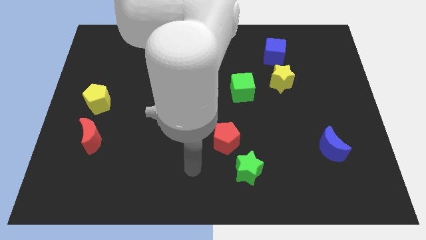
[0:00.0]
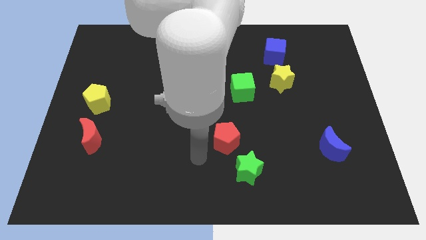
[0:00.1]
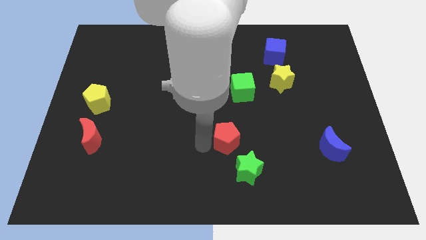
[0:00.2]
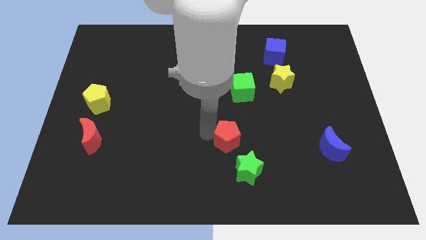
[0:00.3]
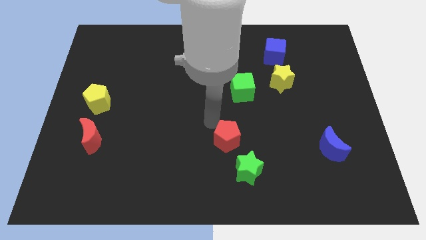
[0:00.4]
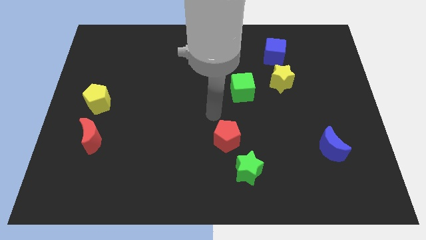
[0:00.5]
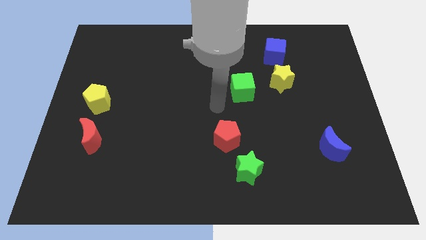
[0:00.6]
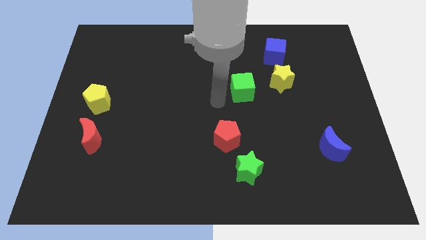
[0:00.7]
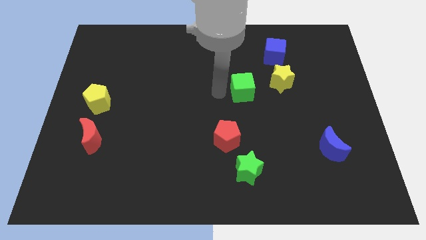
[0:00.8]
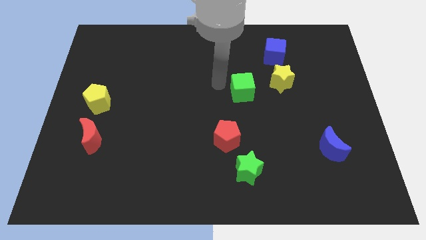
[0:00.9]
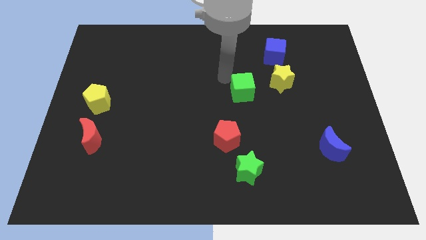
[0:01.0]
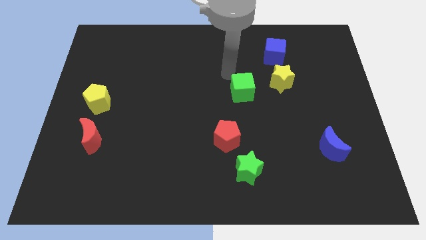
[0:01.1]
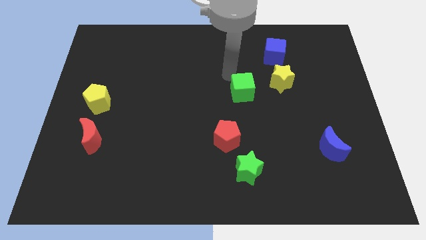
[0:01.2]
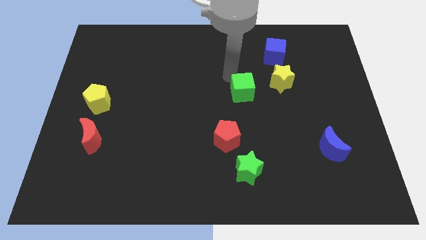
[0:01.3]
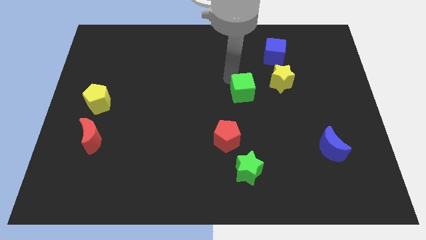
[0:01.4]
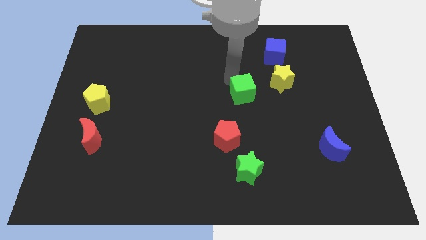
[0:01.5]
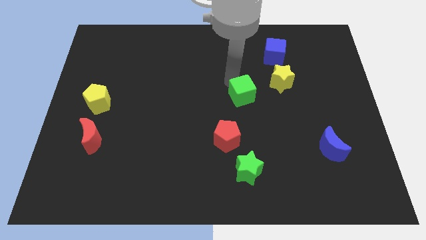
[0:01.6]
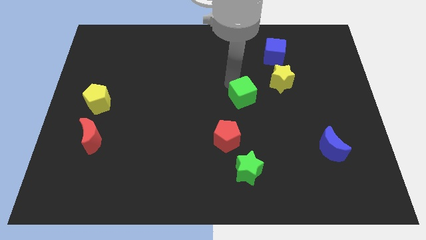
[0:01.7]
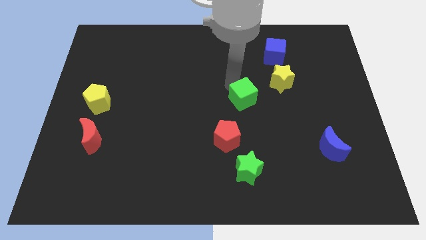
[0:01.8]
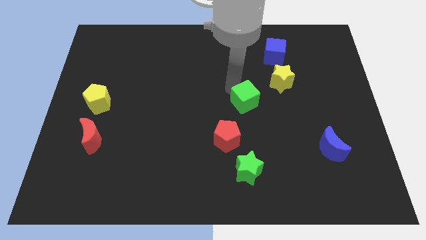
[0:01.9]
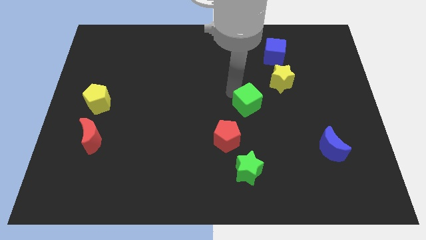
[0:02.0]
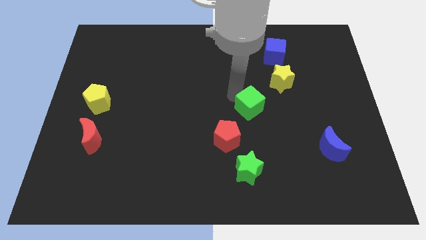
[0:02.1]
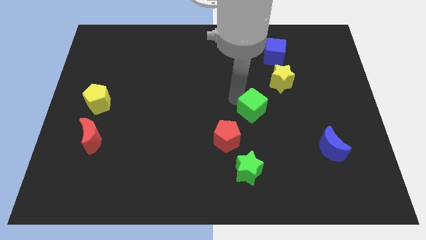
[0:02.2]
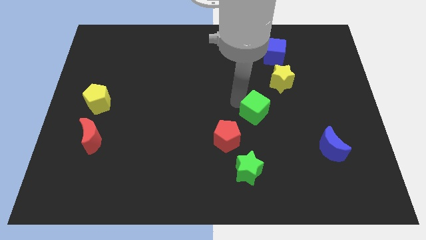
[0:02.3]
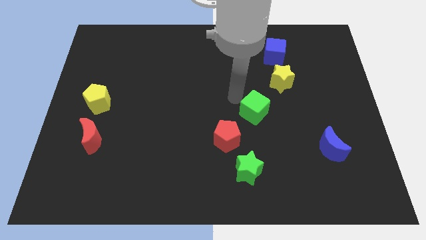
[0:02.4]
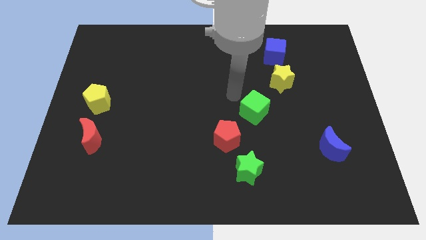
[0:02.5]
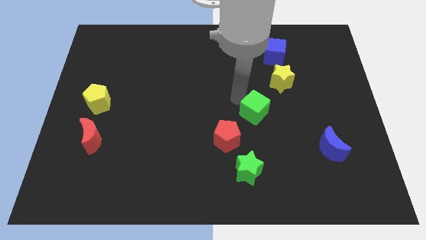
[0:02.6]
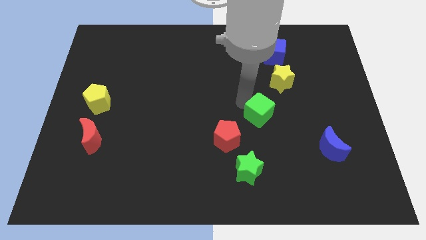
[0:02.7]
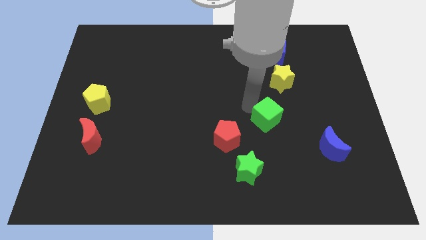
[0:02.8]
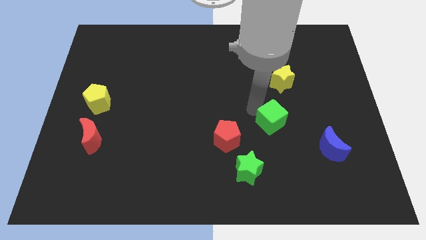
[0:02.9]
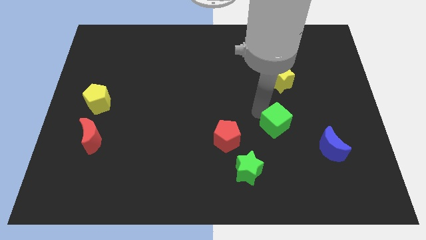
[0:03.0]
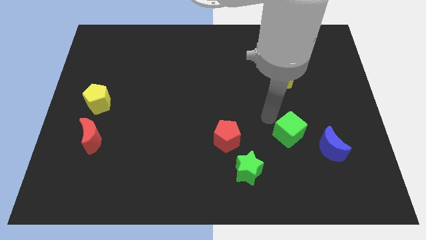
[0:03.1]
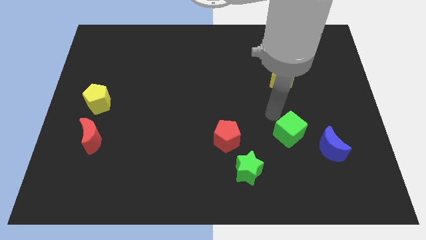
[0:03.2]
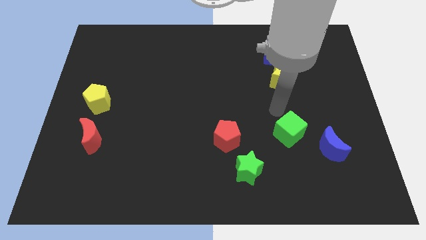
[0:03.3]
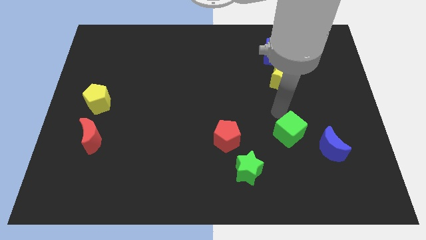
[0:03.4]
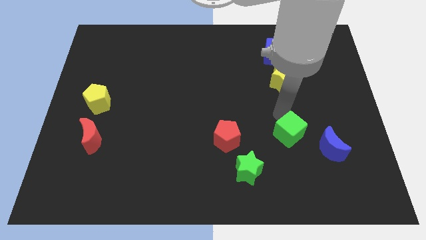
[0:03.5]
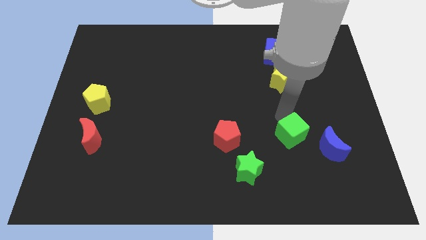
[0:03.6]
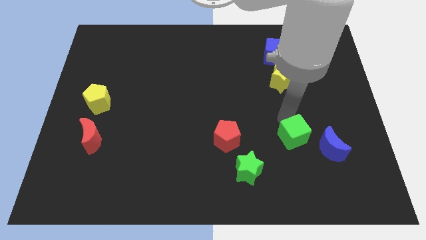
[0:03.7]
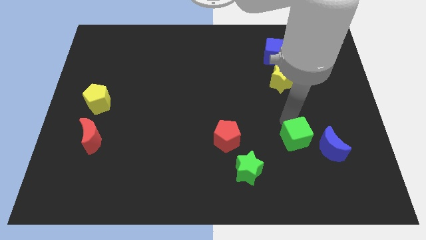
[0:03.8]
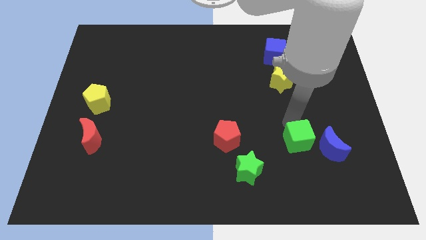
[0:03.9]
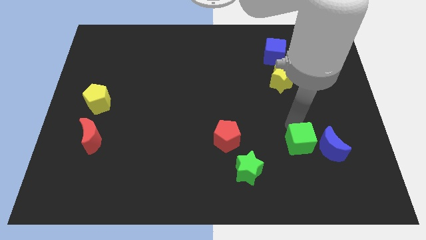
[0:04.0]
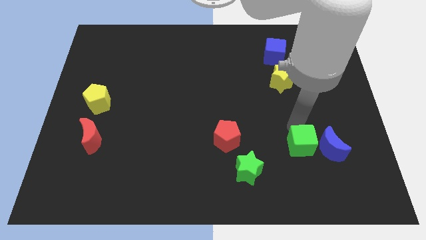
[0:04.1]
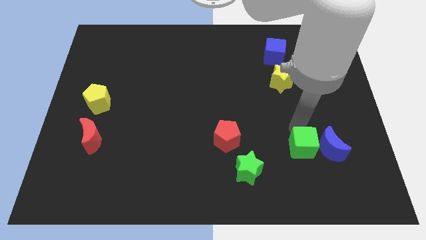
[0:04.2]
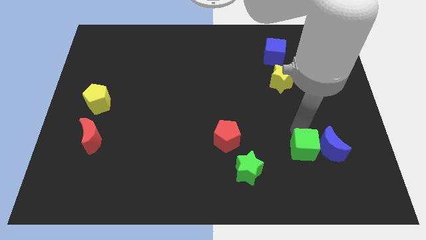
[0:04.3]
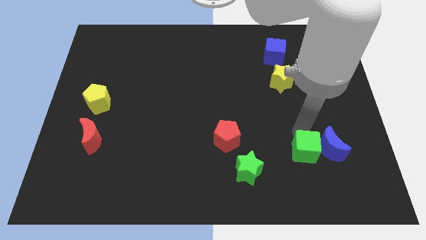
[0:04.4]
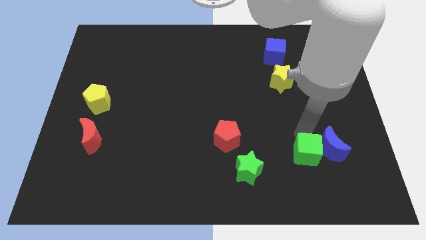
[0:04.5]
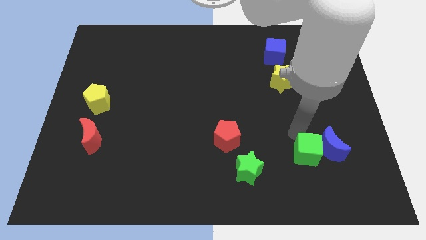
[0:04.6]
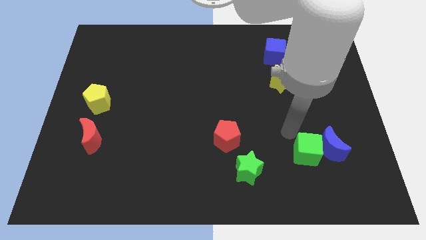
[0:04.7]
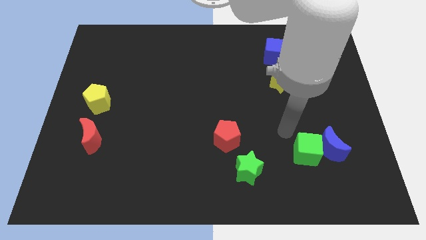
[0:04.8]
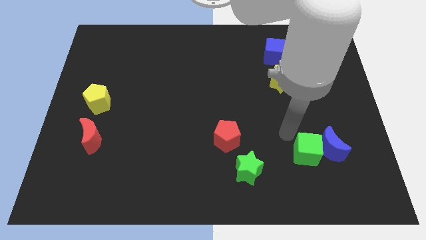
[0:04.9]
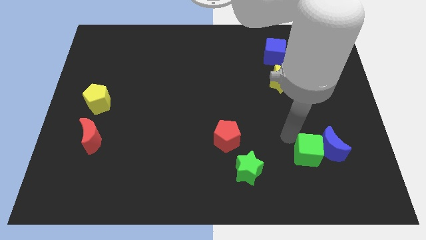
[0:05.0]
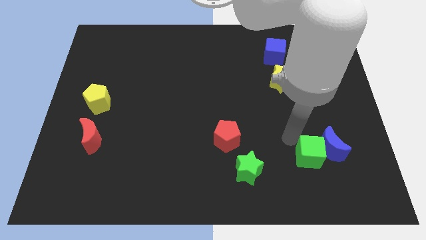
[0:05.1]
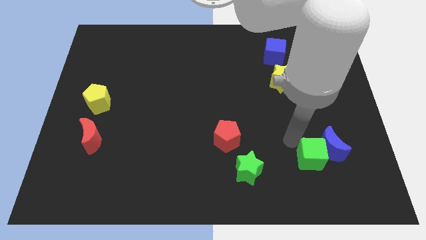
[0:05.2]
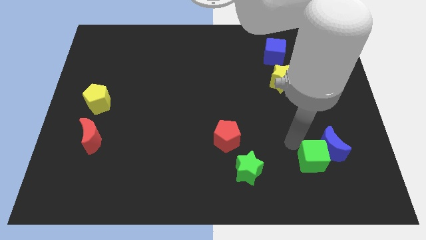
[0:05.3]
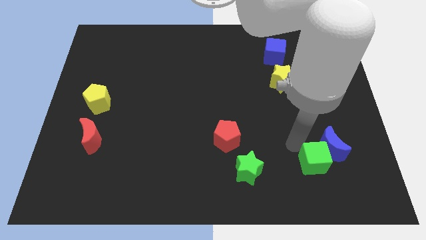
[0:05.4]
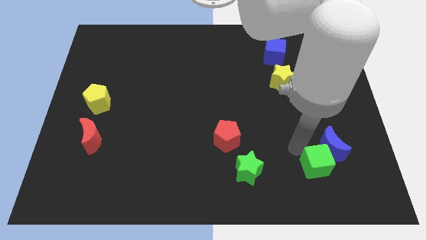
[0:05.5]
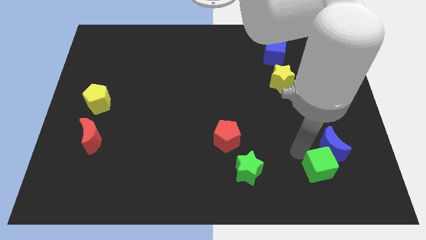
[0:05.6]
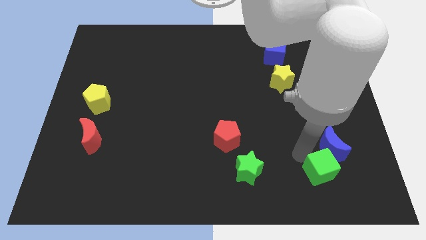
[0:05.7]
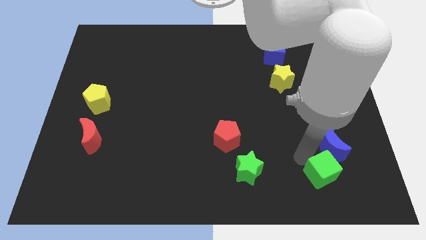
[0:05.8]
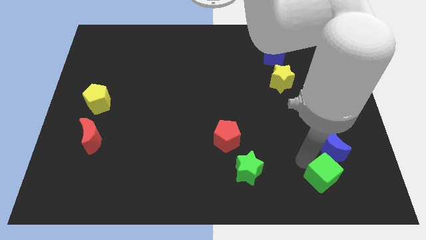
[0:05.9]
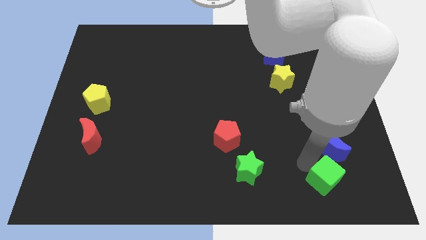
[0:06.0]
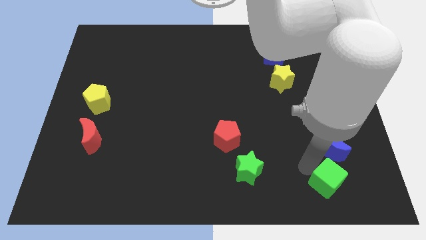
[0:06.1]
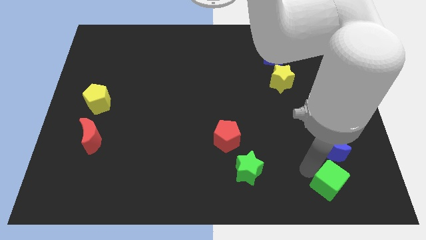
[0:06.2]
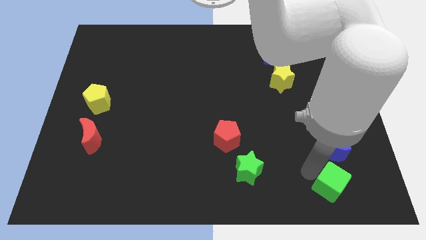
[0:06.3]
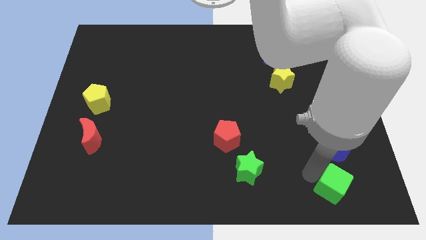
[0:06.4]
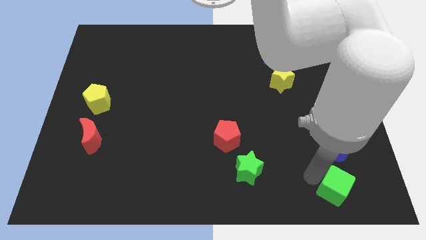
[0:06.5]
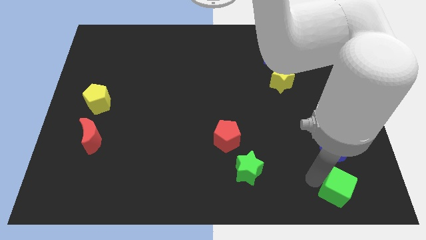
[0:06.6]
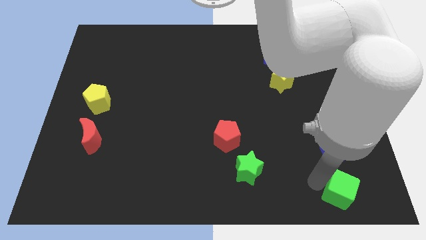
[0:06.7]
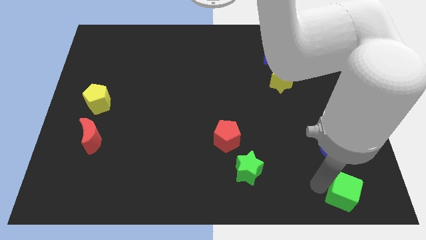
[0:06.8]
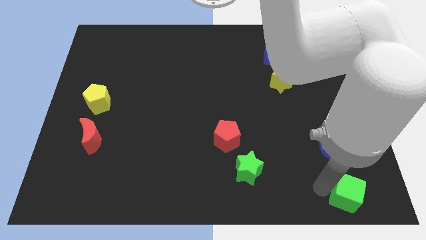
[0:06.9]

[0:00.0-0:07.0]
put the green cube to the lower right corner
